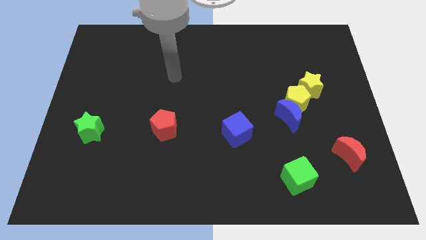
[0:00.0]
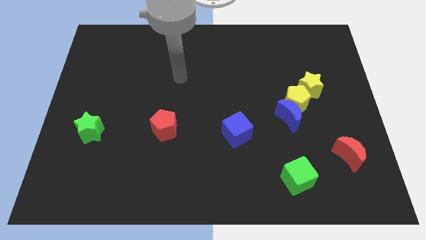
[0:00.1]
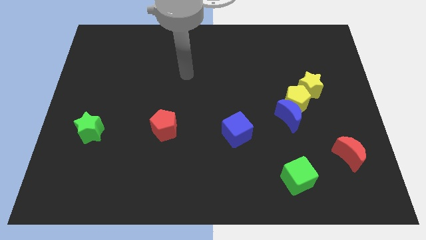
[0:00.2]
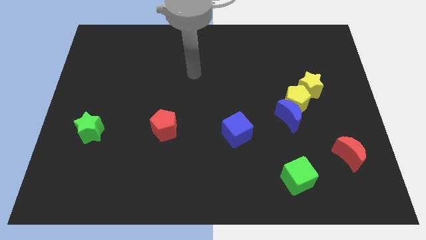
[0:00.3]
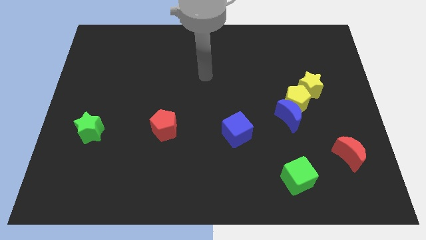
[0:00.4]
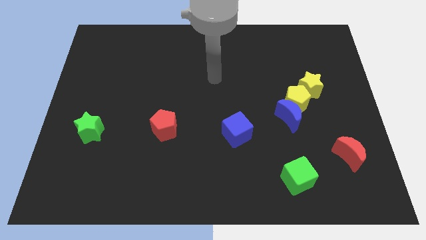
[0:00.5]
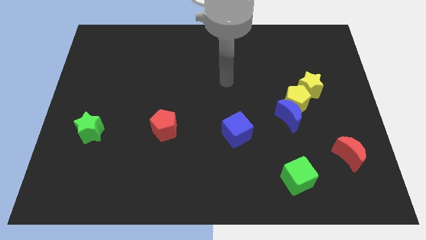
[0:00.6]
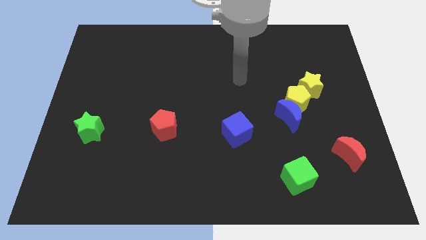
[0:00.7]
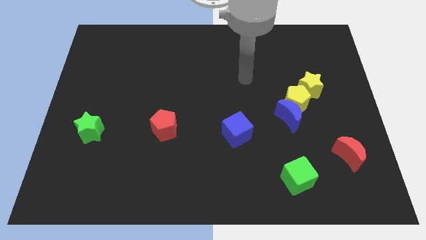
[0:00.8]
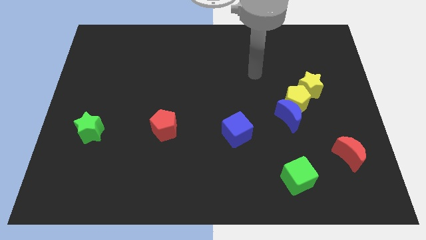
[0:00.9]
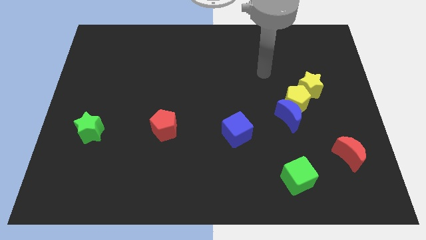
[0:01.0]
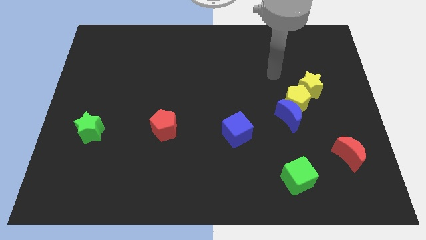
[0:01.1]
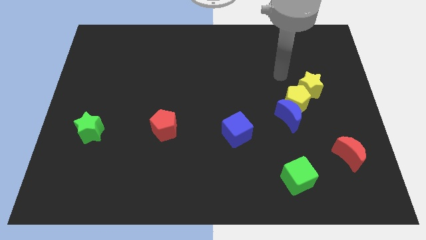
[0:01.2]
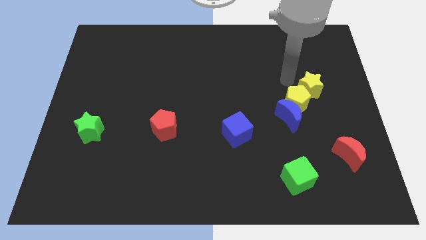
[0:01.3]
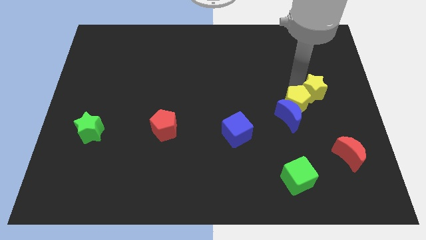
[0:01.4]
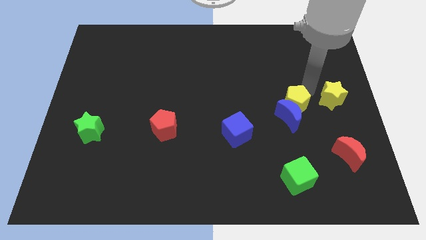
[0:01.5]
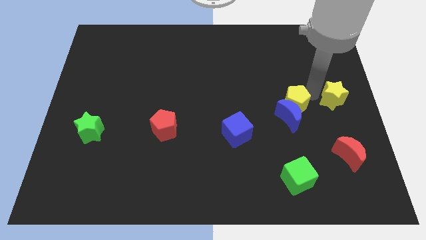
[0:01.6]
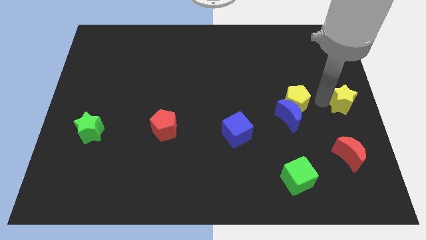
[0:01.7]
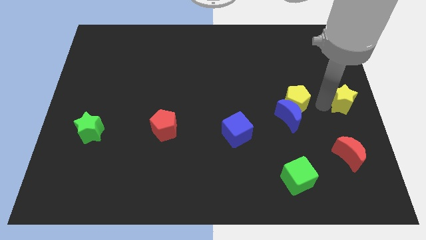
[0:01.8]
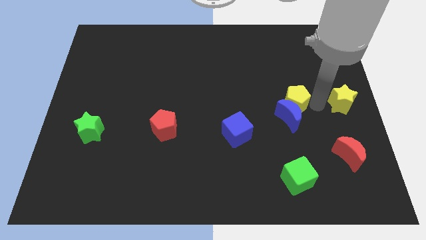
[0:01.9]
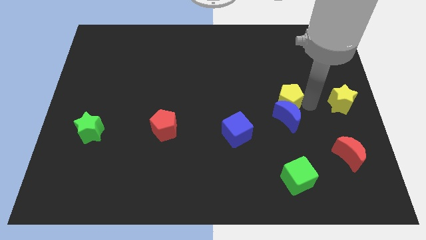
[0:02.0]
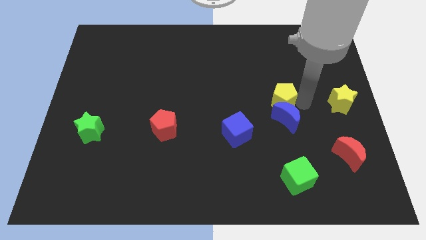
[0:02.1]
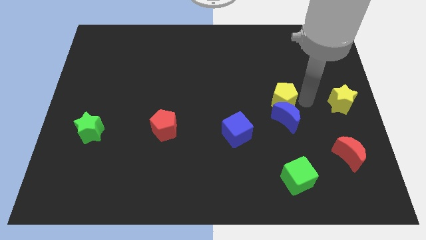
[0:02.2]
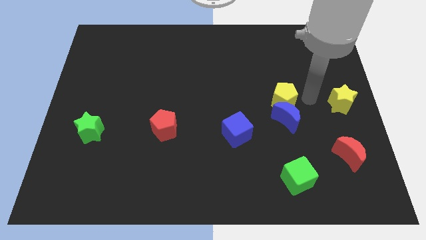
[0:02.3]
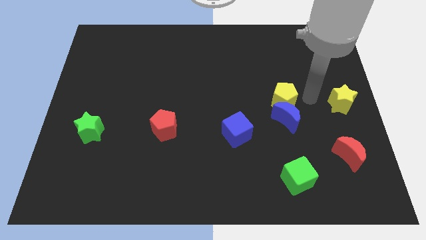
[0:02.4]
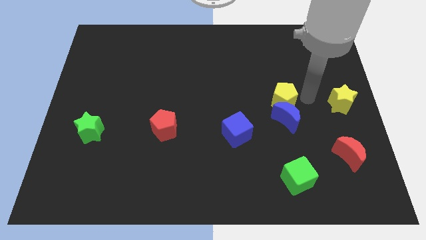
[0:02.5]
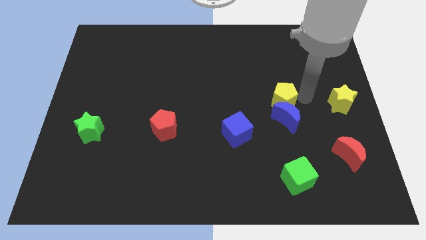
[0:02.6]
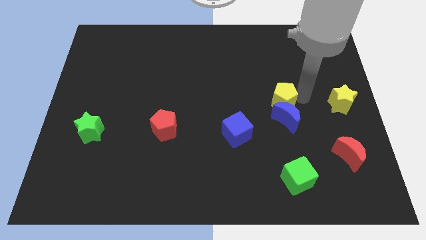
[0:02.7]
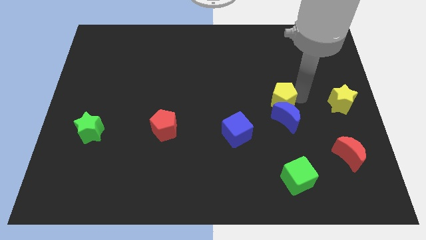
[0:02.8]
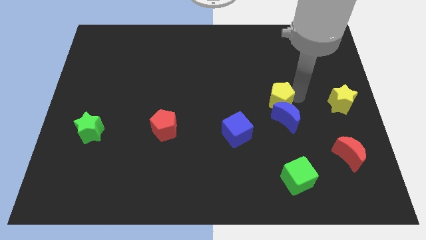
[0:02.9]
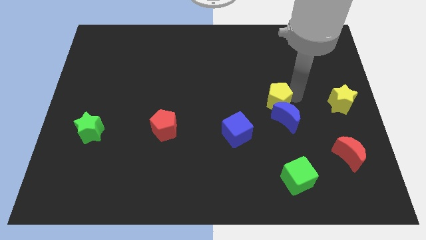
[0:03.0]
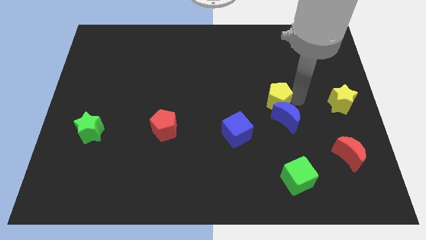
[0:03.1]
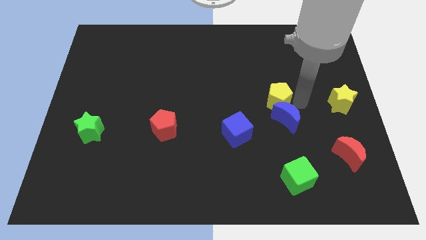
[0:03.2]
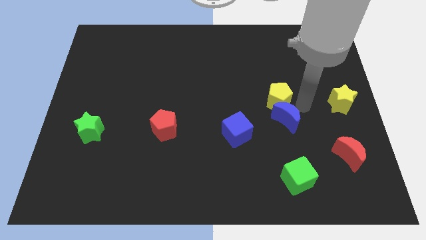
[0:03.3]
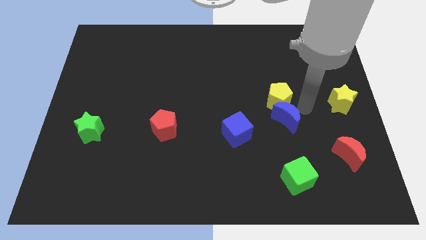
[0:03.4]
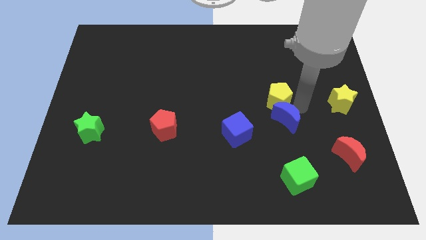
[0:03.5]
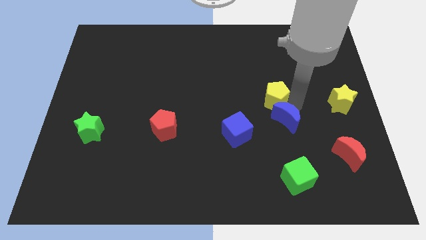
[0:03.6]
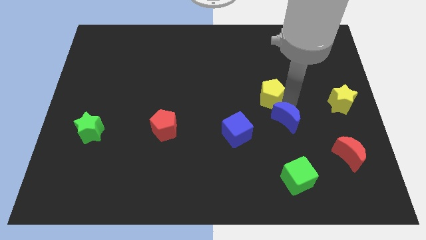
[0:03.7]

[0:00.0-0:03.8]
separate the yellow pentagon from the blue moon and yellow star

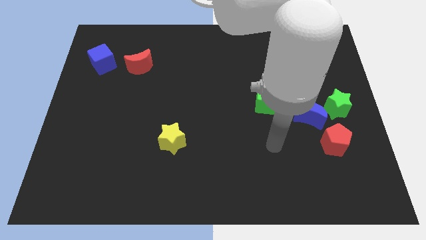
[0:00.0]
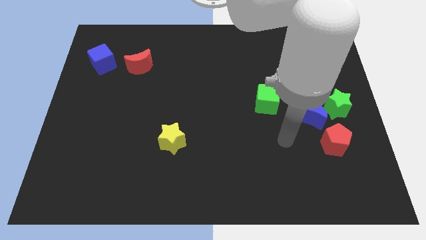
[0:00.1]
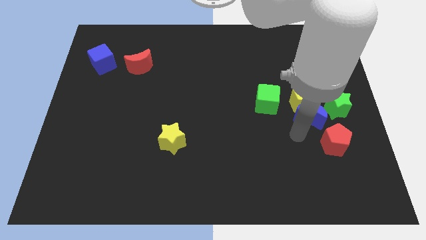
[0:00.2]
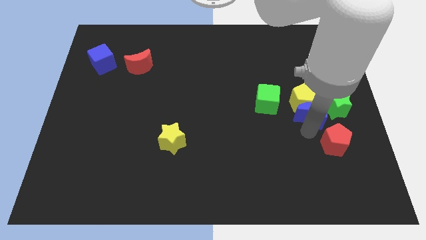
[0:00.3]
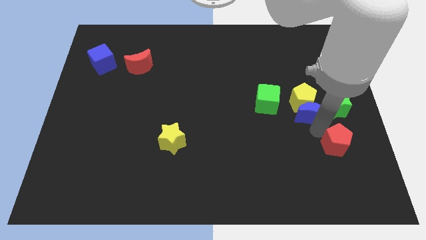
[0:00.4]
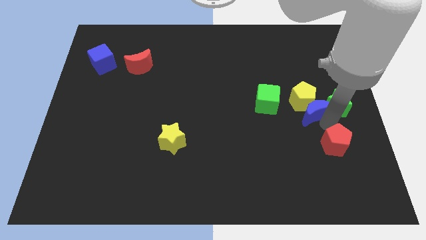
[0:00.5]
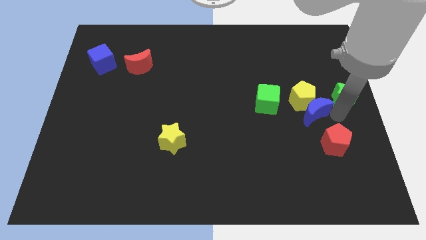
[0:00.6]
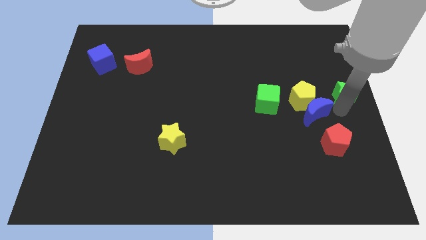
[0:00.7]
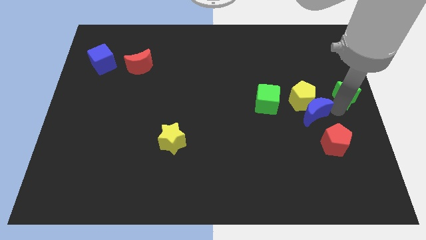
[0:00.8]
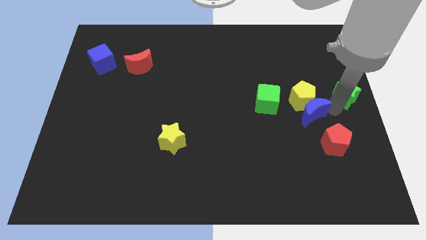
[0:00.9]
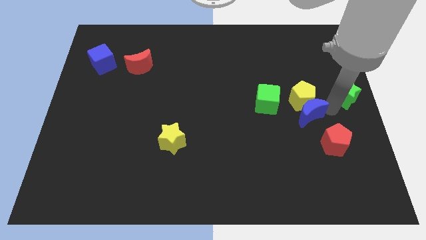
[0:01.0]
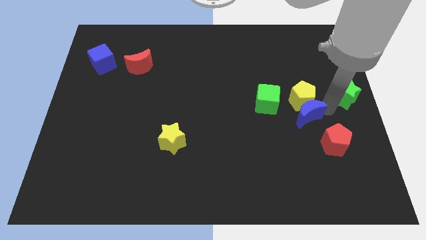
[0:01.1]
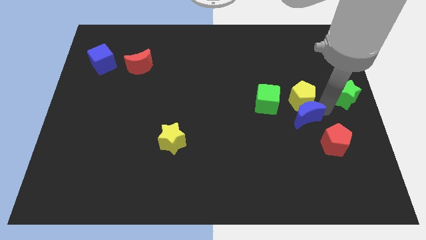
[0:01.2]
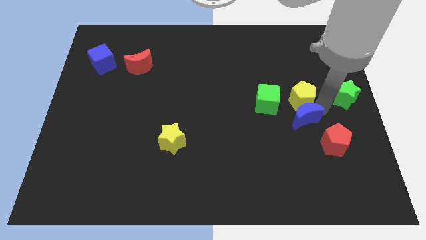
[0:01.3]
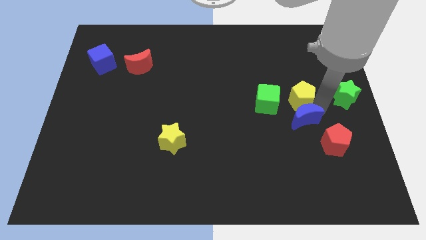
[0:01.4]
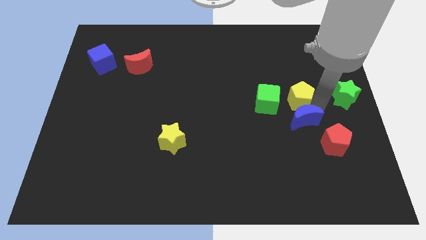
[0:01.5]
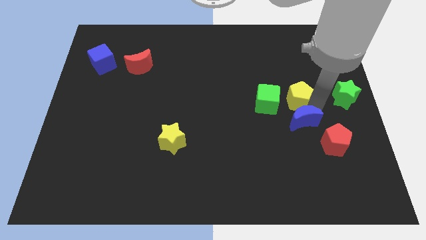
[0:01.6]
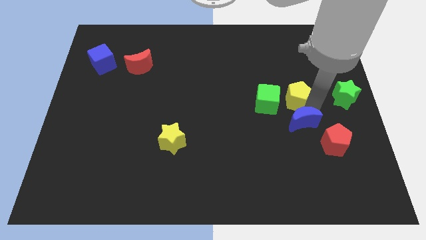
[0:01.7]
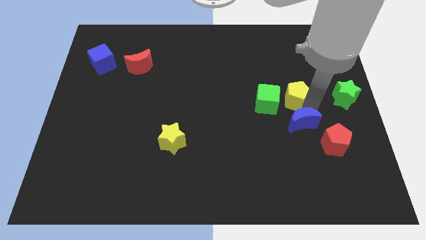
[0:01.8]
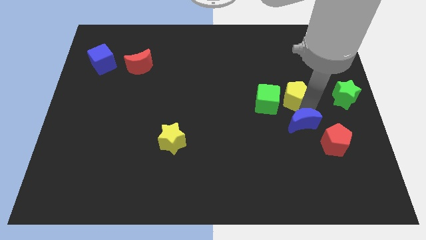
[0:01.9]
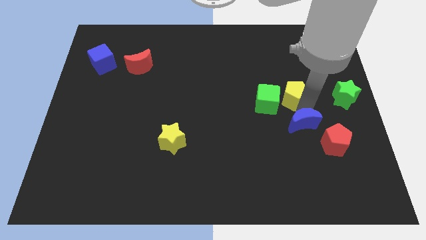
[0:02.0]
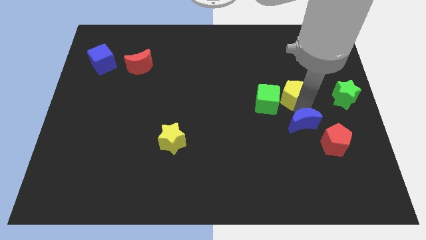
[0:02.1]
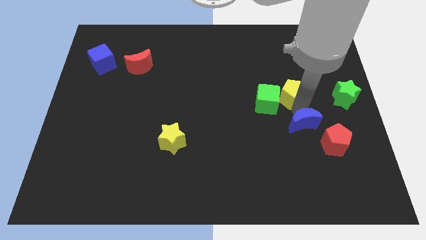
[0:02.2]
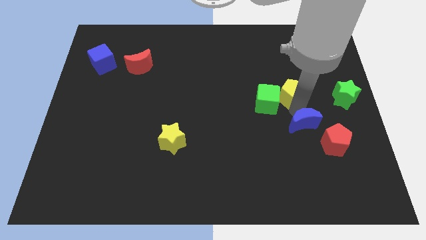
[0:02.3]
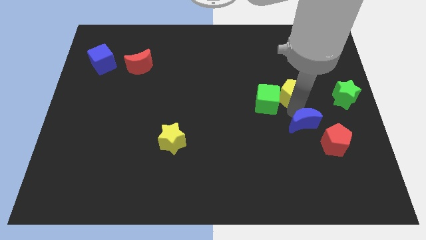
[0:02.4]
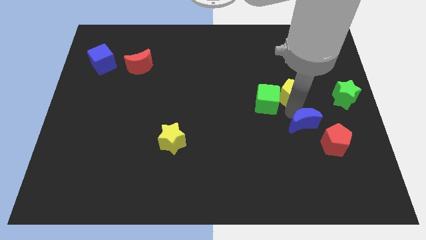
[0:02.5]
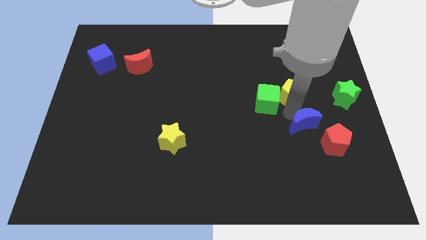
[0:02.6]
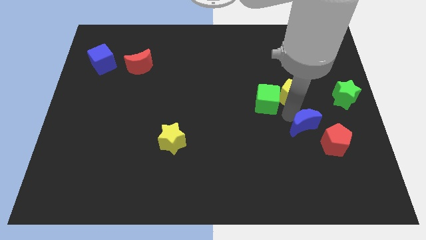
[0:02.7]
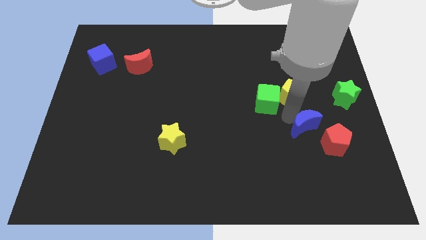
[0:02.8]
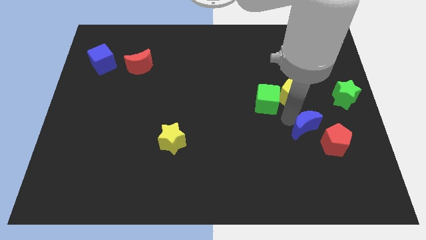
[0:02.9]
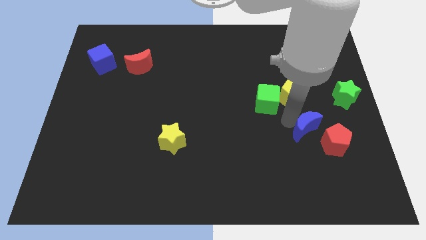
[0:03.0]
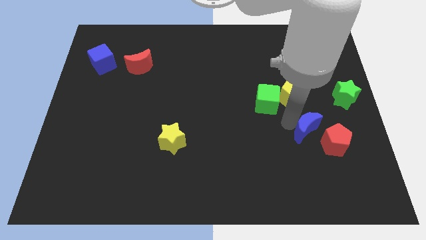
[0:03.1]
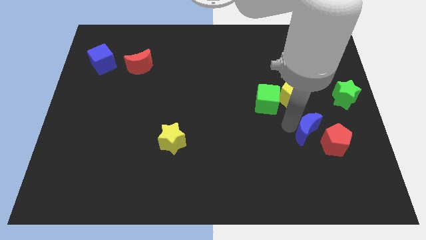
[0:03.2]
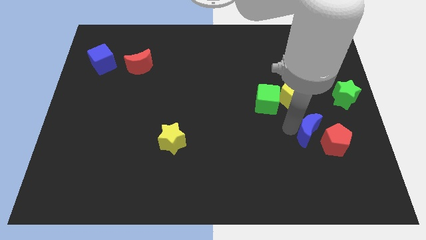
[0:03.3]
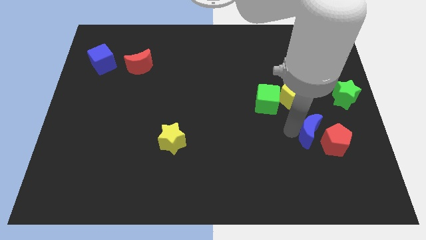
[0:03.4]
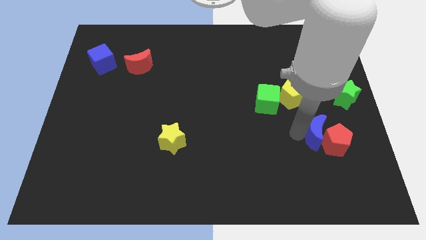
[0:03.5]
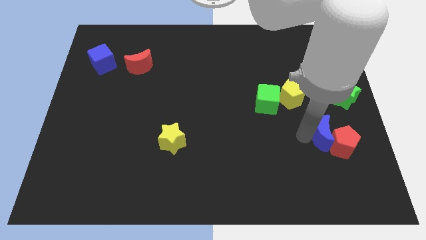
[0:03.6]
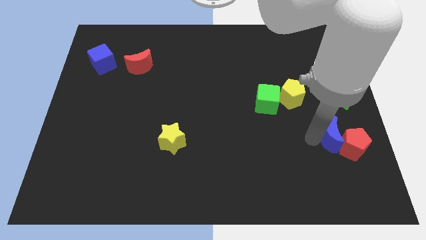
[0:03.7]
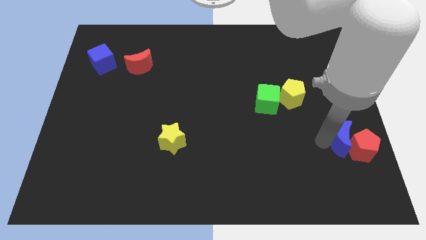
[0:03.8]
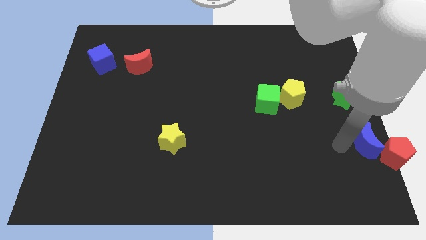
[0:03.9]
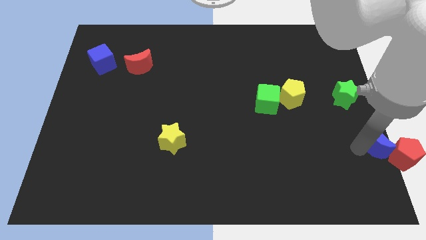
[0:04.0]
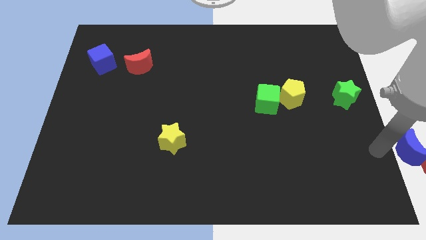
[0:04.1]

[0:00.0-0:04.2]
pull the blue moon apart from the yellow pentagon, green star, and red pentagon

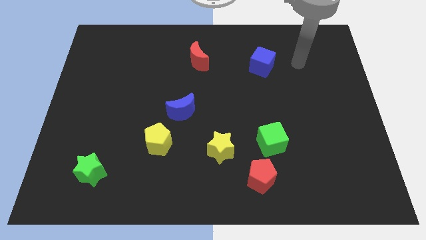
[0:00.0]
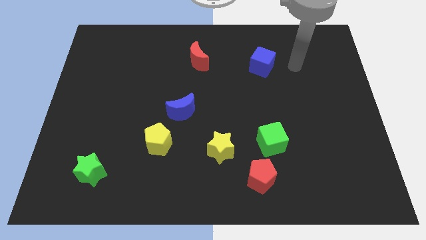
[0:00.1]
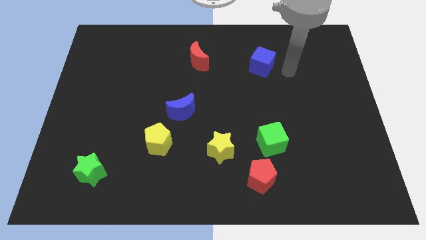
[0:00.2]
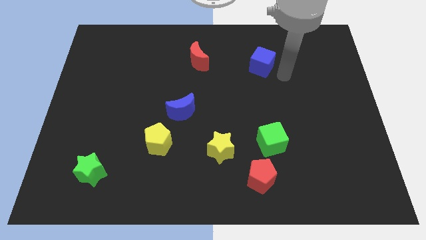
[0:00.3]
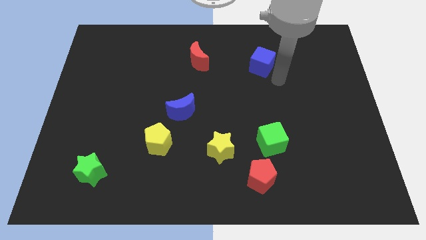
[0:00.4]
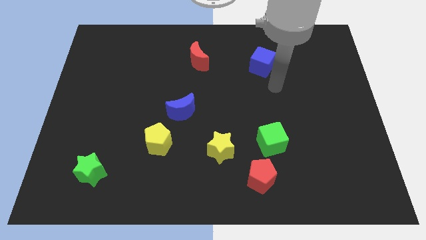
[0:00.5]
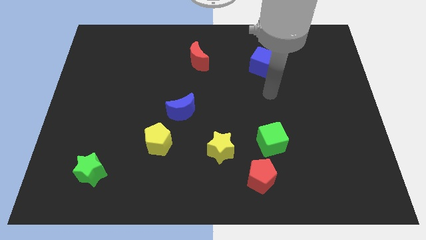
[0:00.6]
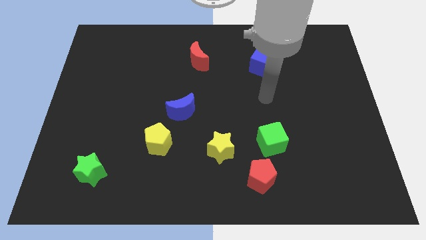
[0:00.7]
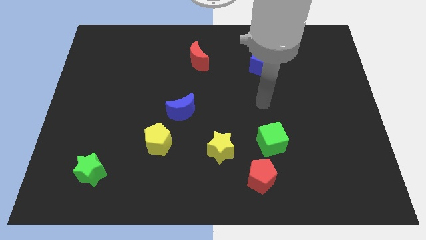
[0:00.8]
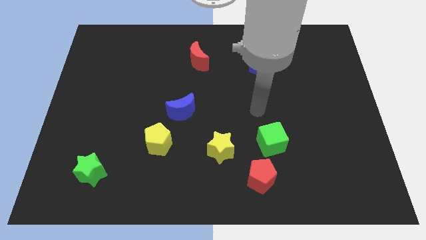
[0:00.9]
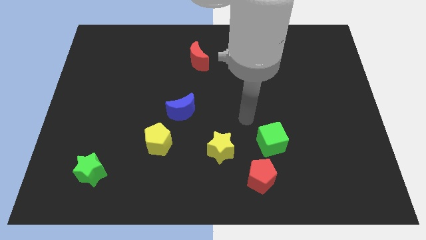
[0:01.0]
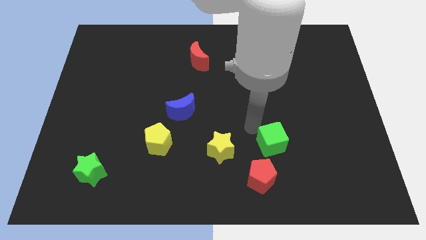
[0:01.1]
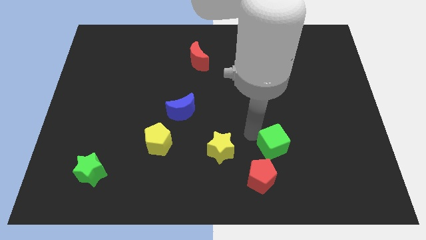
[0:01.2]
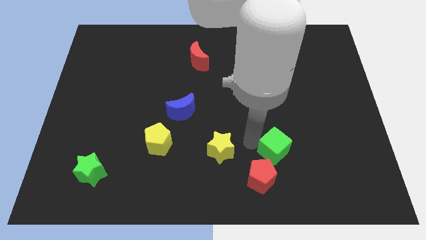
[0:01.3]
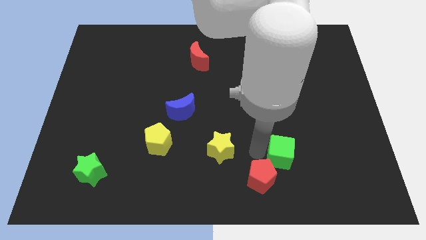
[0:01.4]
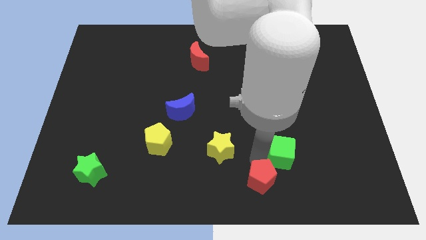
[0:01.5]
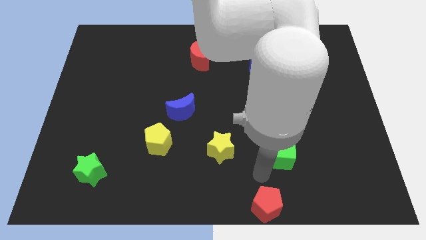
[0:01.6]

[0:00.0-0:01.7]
separate the green cube from the red pentagon
